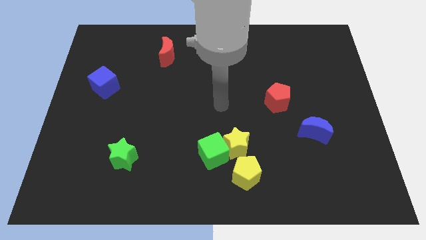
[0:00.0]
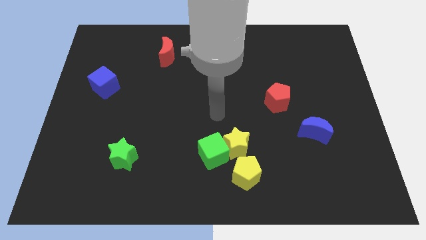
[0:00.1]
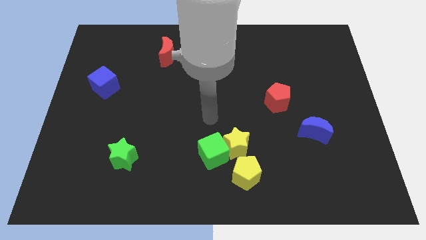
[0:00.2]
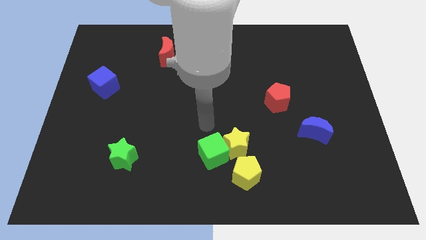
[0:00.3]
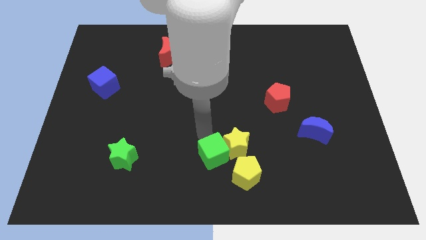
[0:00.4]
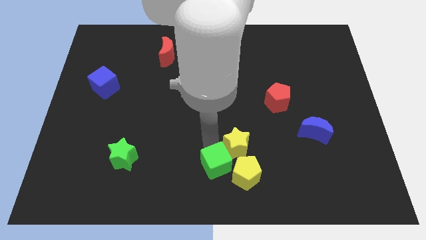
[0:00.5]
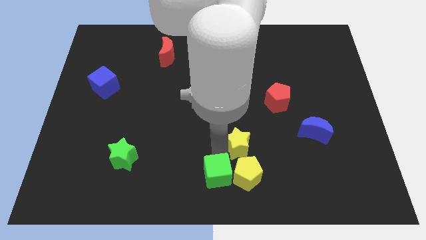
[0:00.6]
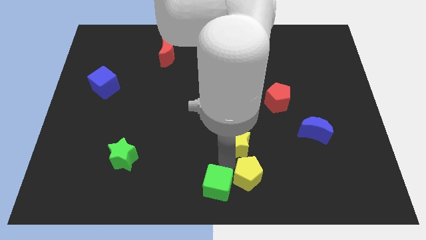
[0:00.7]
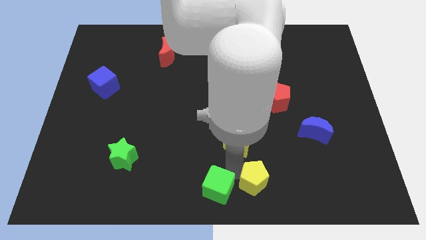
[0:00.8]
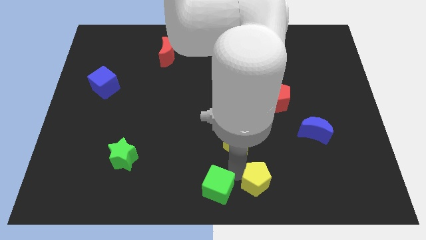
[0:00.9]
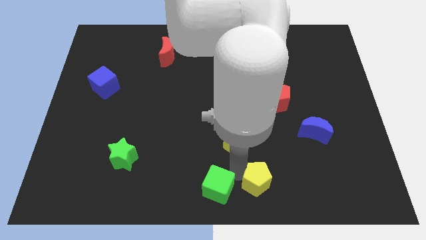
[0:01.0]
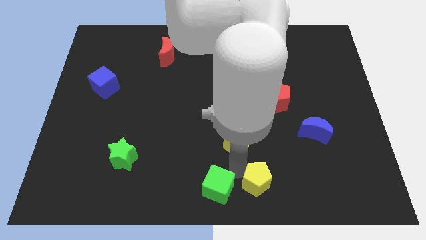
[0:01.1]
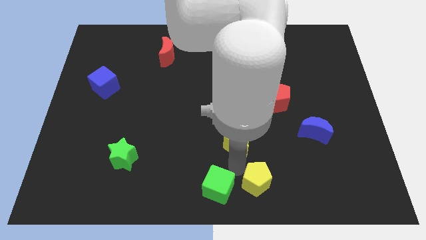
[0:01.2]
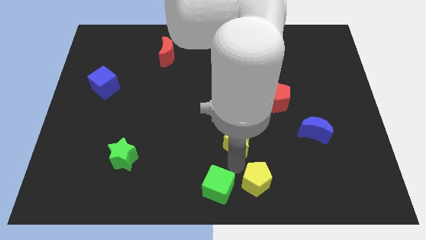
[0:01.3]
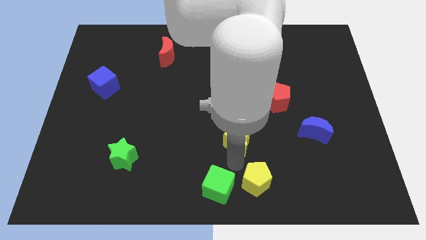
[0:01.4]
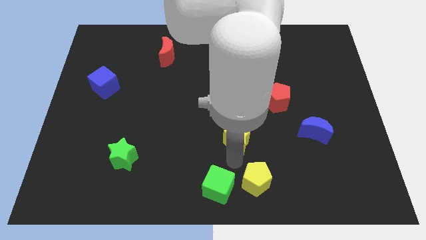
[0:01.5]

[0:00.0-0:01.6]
separate the yellow star from the green cube and yellow pentagon

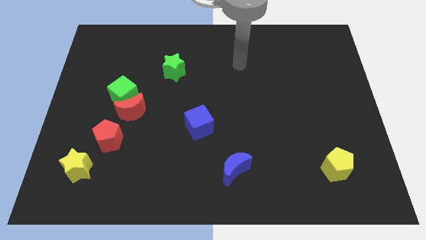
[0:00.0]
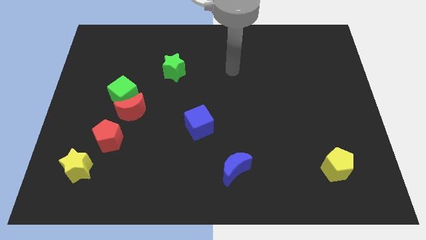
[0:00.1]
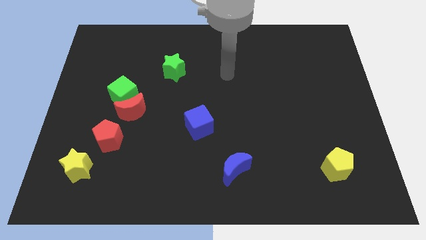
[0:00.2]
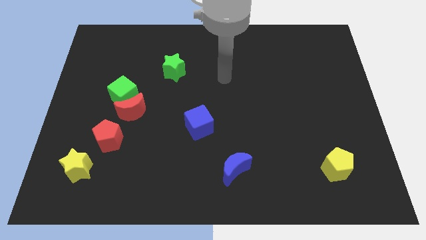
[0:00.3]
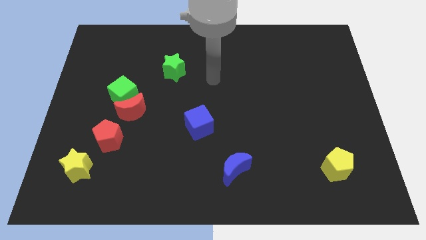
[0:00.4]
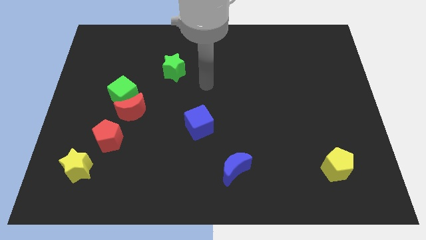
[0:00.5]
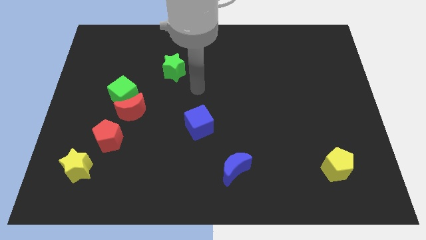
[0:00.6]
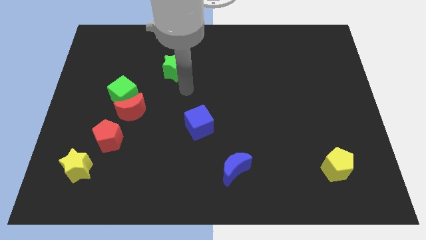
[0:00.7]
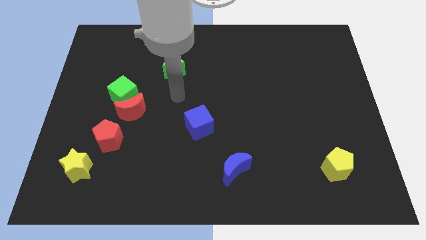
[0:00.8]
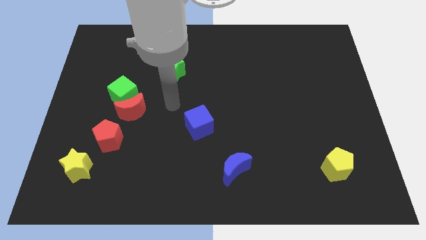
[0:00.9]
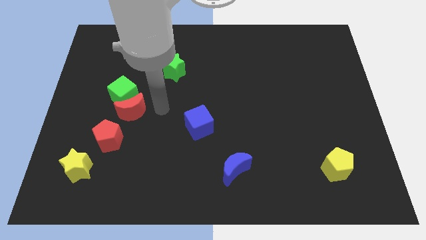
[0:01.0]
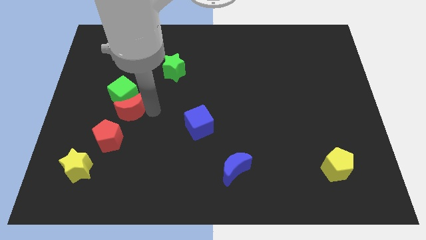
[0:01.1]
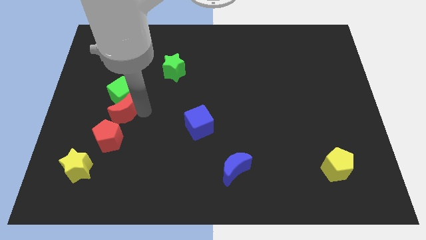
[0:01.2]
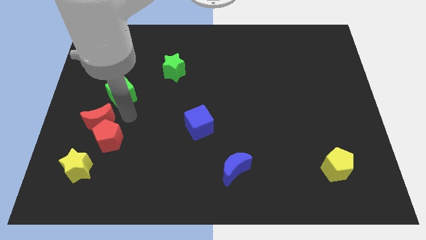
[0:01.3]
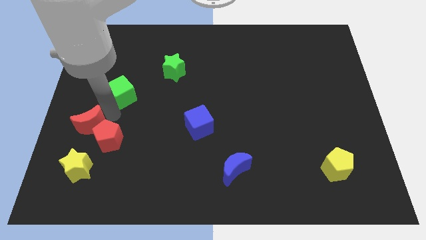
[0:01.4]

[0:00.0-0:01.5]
pull the green cube apart from the red moon

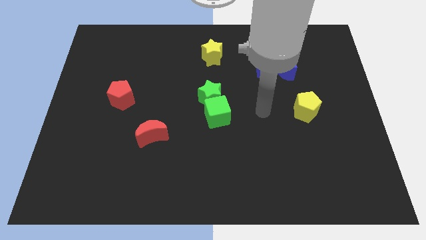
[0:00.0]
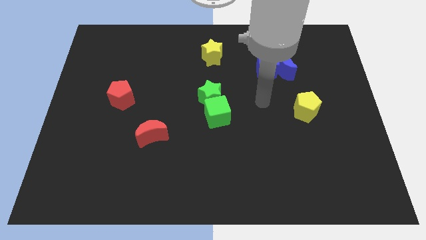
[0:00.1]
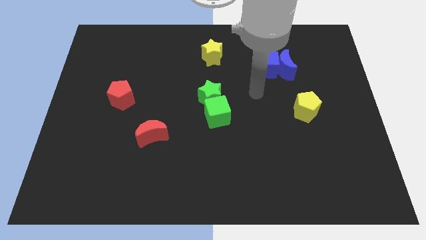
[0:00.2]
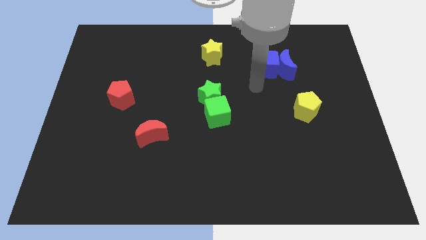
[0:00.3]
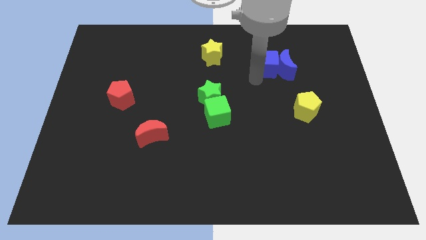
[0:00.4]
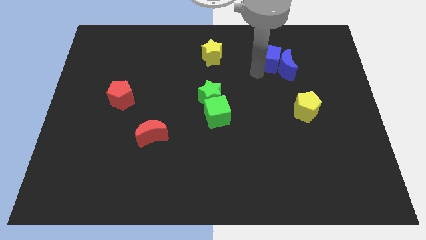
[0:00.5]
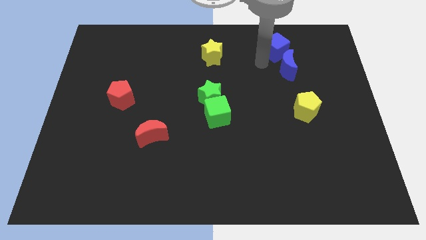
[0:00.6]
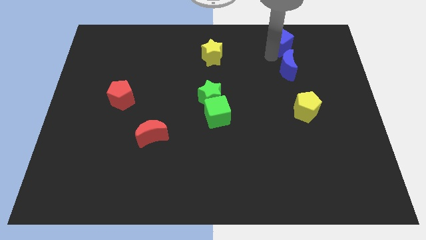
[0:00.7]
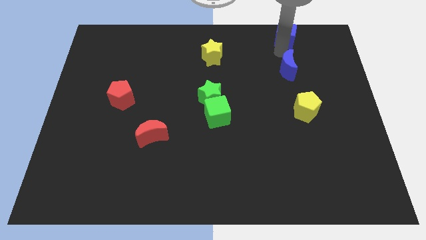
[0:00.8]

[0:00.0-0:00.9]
pull the blue moon apart from the blue cube

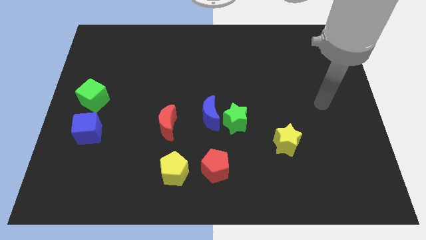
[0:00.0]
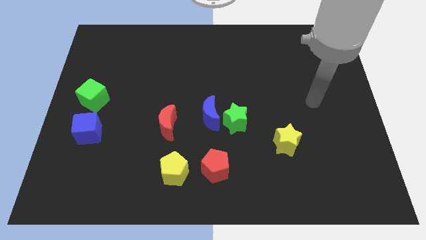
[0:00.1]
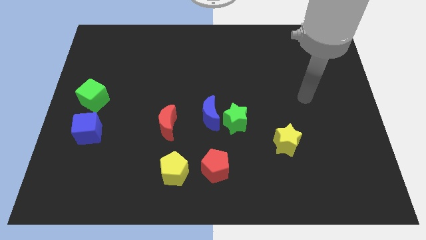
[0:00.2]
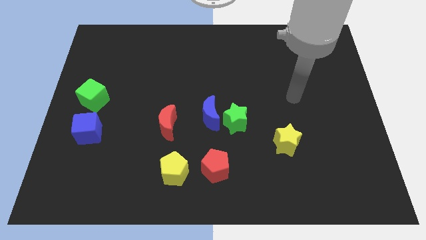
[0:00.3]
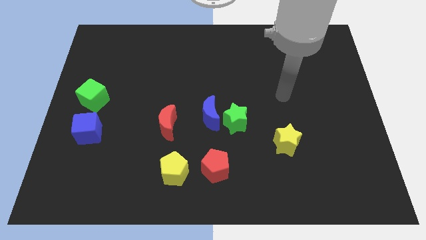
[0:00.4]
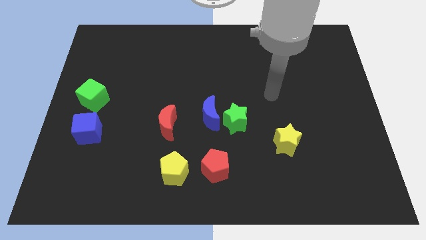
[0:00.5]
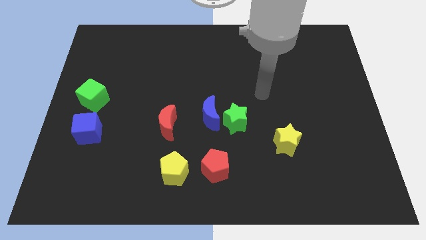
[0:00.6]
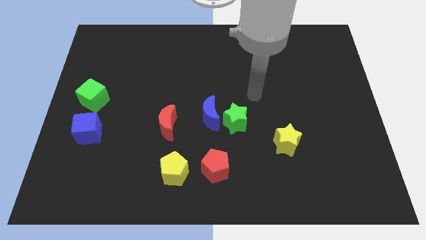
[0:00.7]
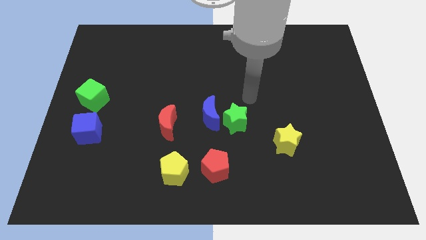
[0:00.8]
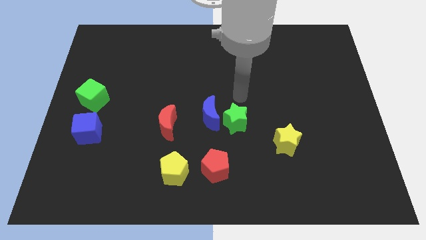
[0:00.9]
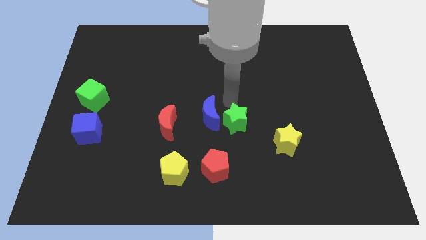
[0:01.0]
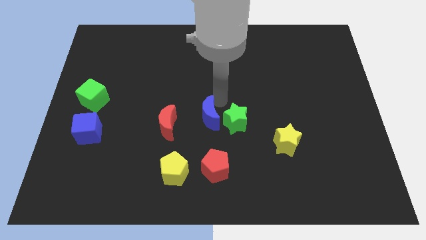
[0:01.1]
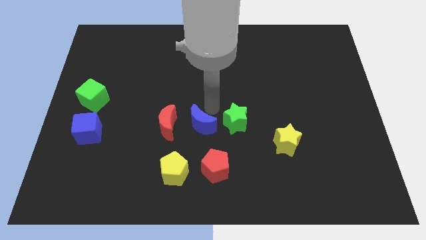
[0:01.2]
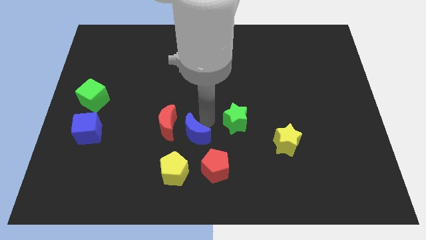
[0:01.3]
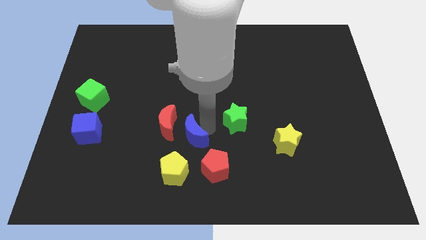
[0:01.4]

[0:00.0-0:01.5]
separate the green star from the blue moon

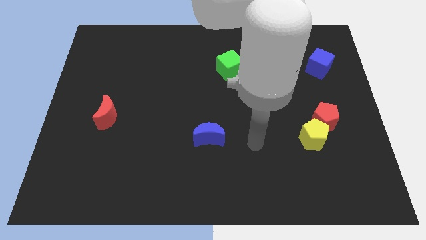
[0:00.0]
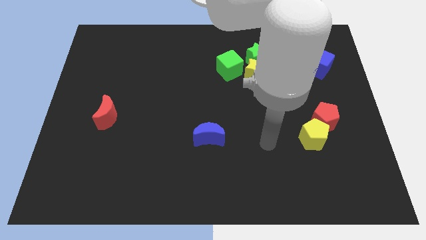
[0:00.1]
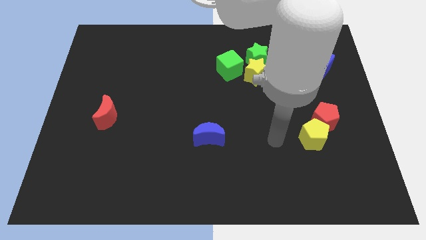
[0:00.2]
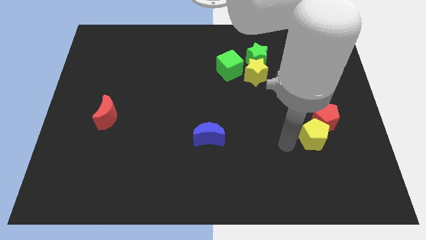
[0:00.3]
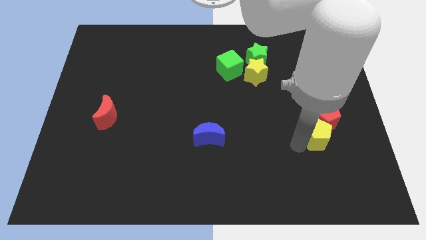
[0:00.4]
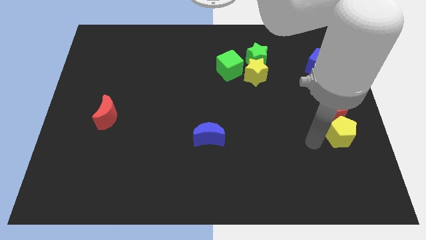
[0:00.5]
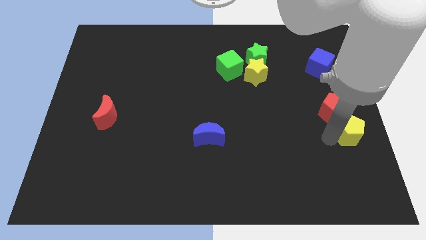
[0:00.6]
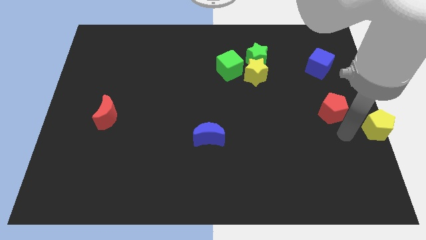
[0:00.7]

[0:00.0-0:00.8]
separate the red pentagon from the yellow pentagon

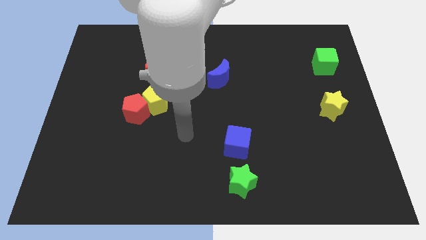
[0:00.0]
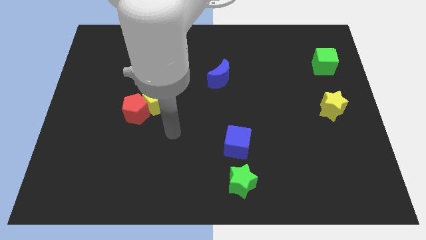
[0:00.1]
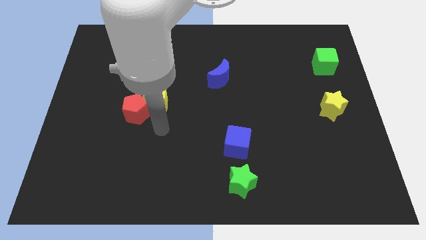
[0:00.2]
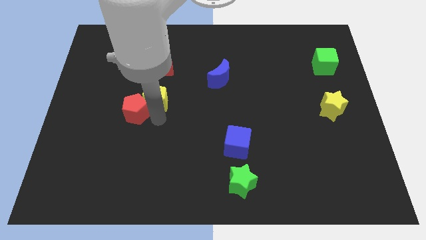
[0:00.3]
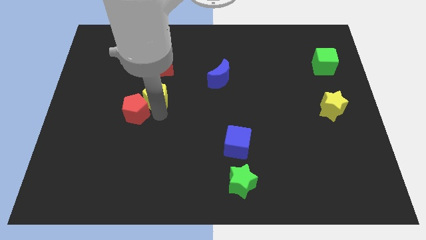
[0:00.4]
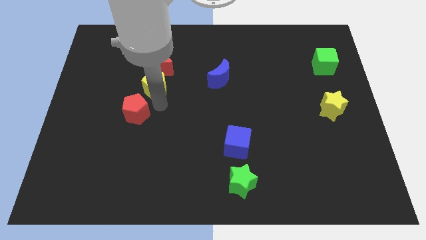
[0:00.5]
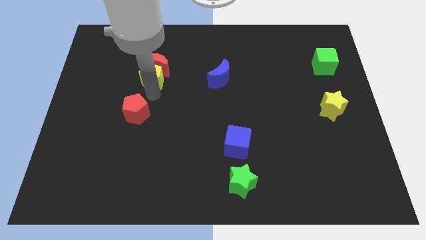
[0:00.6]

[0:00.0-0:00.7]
pull the red pentagon apart from the yellow pentagon

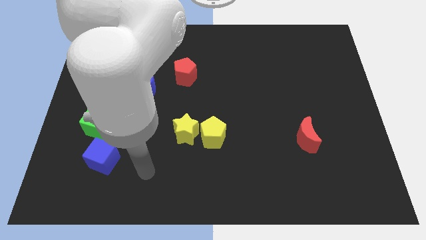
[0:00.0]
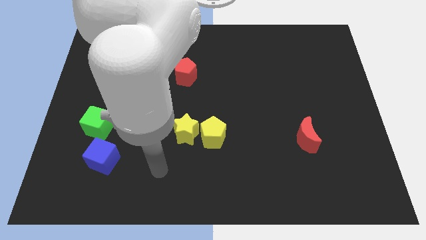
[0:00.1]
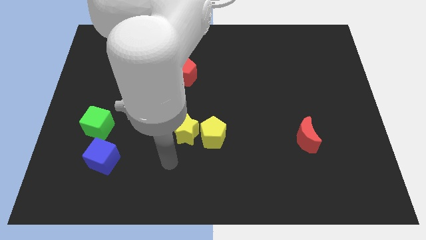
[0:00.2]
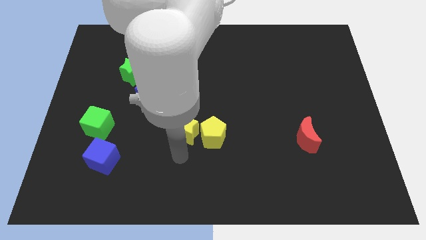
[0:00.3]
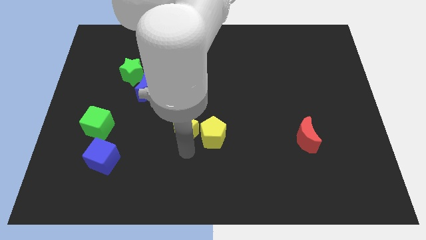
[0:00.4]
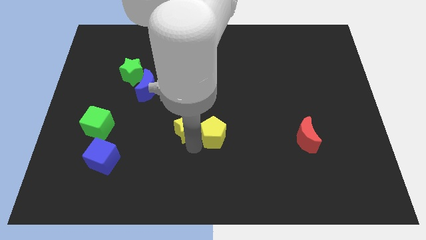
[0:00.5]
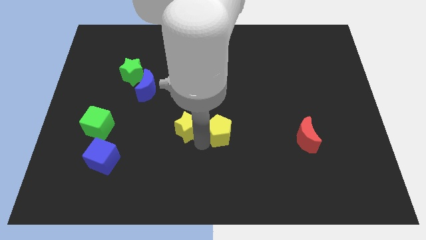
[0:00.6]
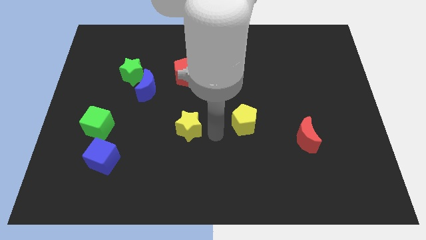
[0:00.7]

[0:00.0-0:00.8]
separate the yellow star from the yellow pentagon

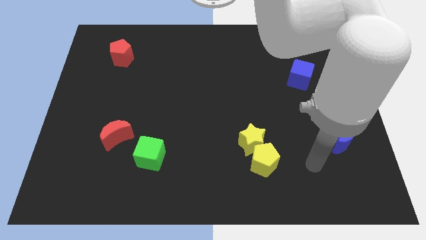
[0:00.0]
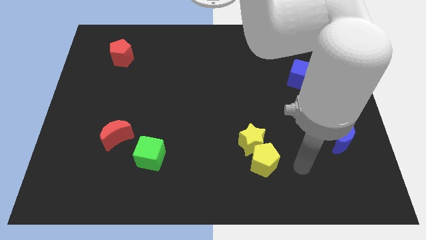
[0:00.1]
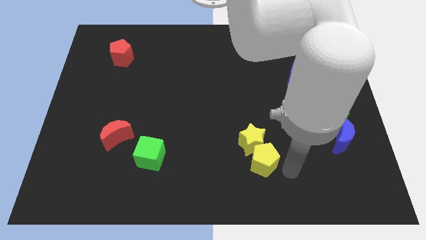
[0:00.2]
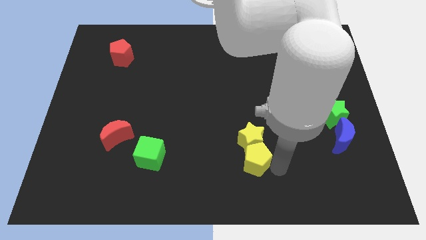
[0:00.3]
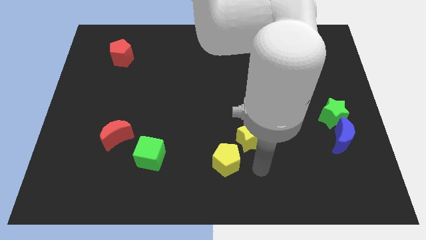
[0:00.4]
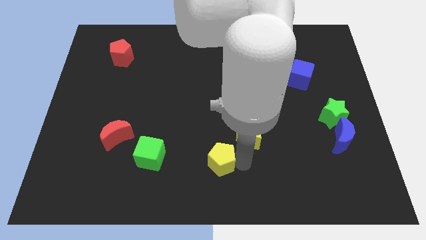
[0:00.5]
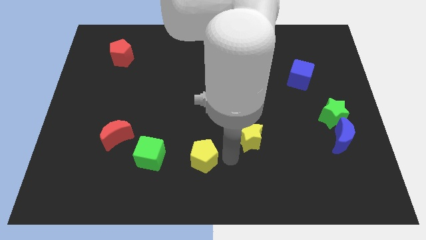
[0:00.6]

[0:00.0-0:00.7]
pull the yellow star apart from the yellow pentagon

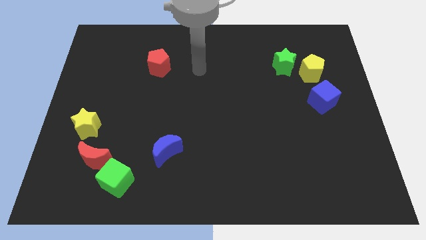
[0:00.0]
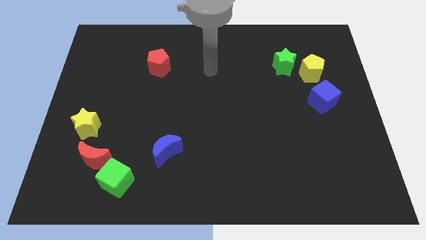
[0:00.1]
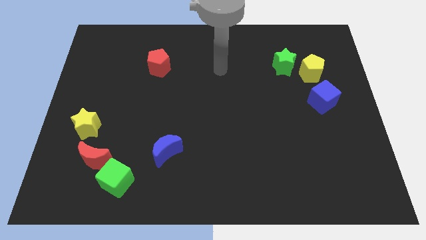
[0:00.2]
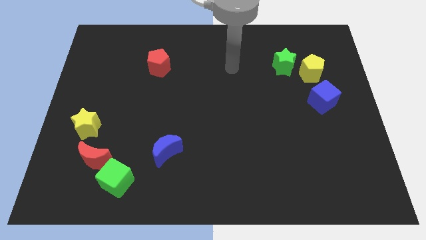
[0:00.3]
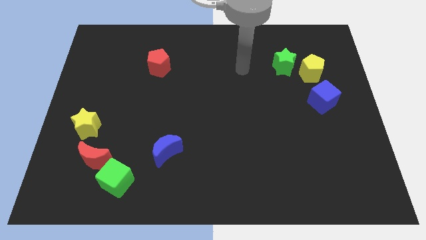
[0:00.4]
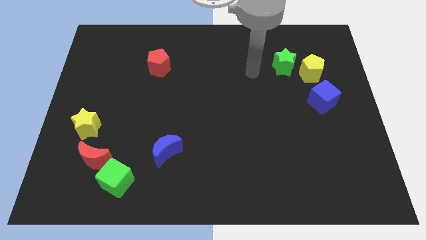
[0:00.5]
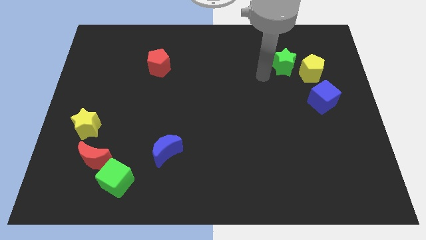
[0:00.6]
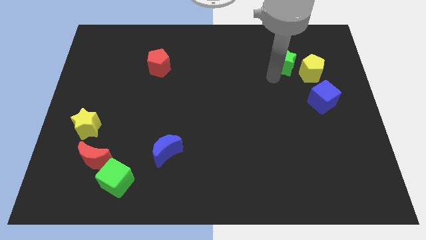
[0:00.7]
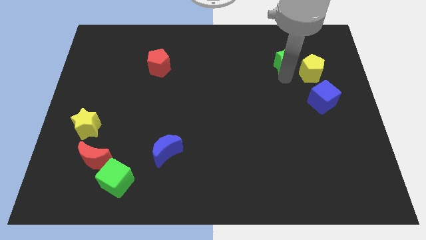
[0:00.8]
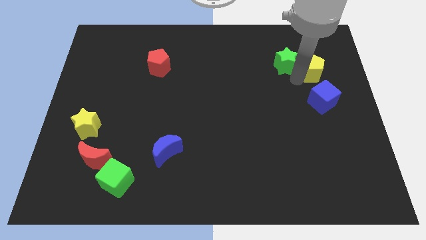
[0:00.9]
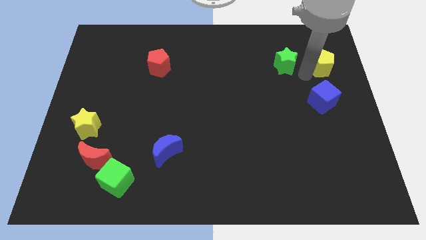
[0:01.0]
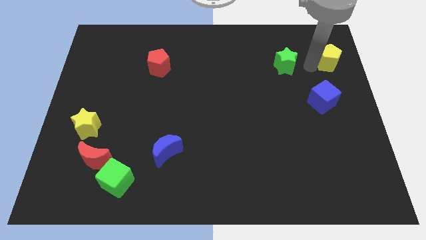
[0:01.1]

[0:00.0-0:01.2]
move the green star away from the yellow pentagon
